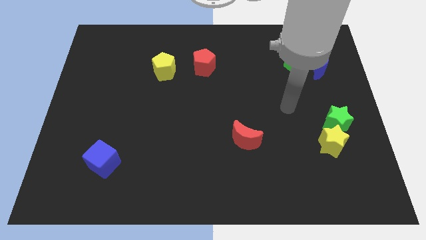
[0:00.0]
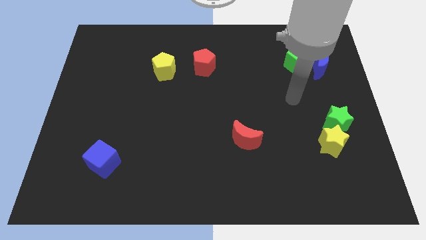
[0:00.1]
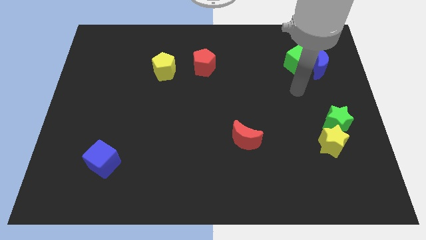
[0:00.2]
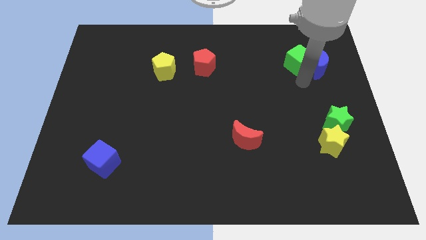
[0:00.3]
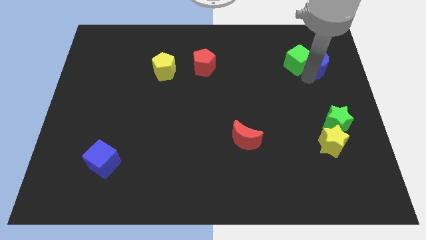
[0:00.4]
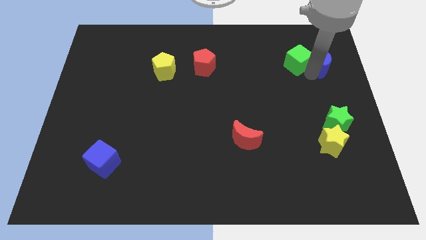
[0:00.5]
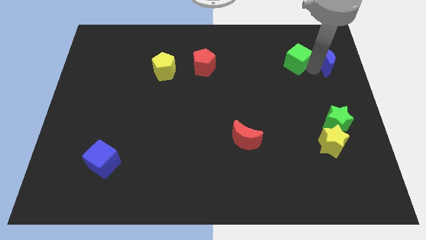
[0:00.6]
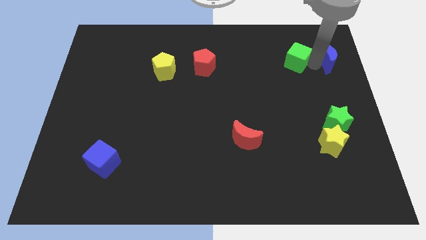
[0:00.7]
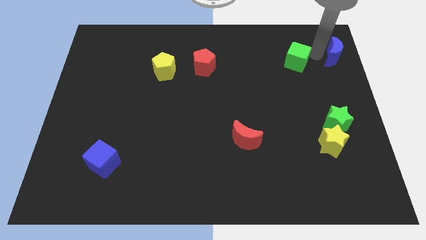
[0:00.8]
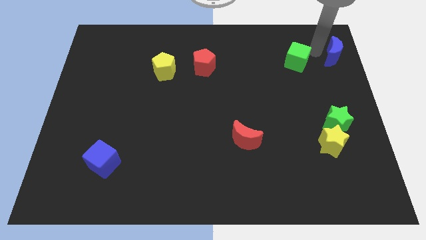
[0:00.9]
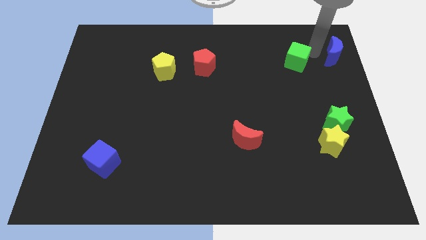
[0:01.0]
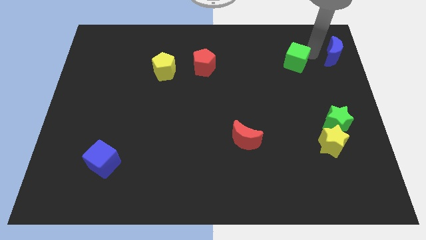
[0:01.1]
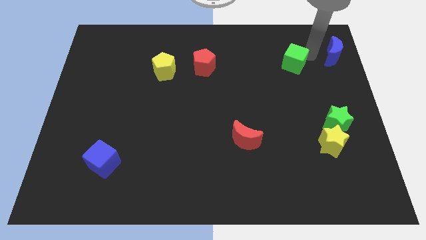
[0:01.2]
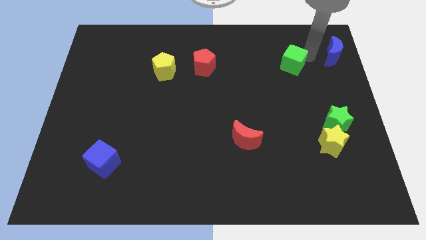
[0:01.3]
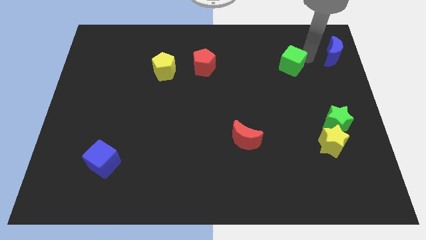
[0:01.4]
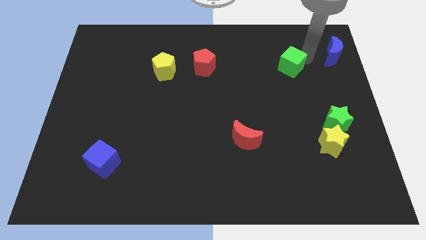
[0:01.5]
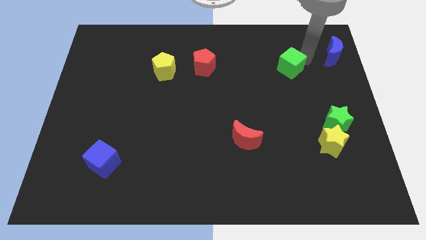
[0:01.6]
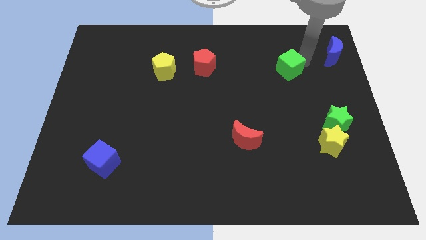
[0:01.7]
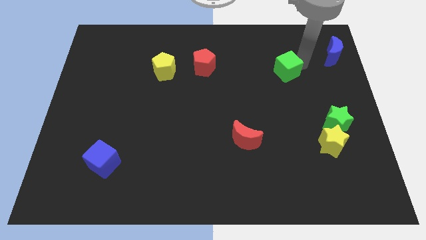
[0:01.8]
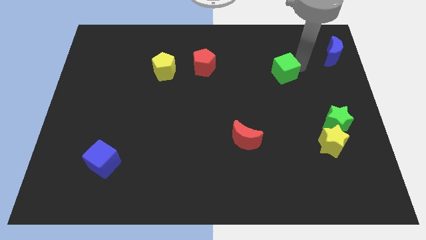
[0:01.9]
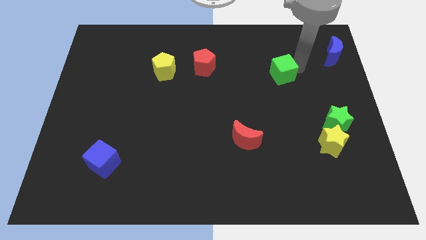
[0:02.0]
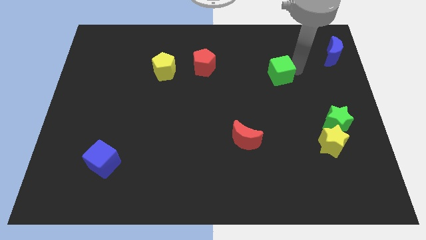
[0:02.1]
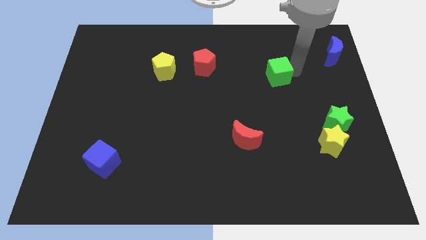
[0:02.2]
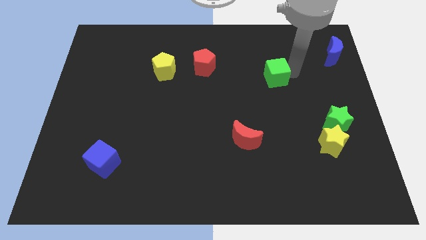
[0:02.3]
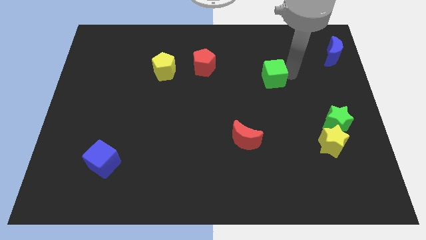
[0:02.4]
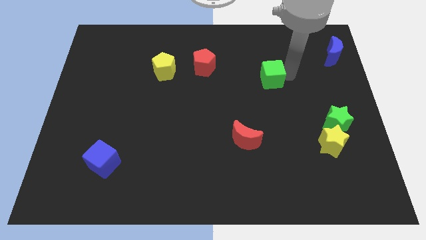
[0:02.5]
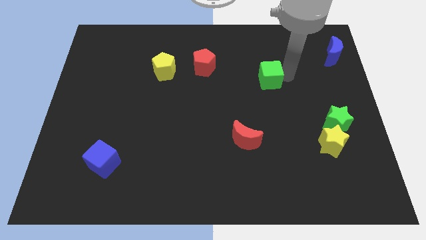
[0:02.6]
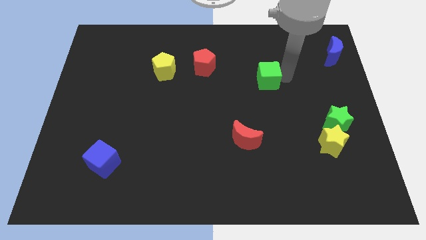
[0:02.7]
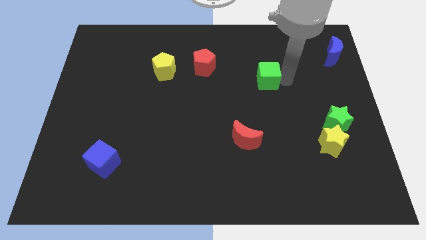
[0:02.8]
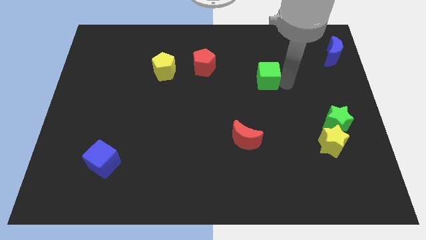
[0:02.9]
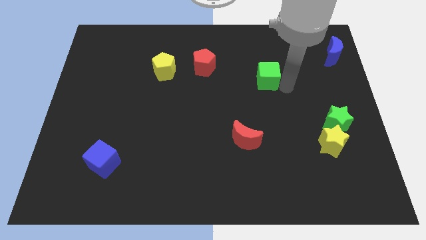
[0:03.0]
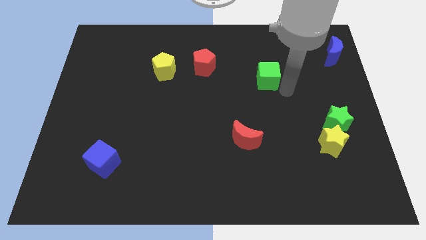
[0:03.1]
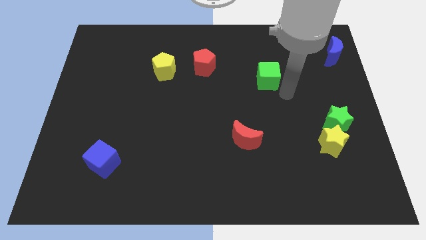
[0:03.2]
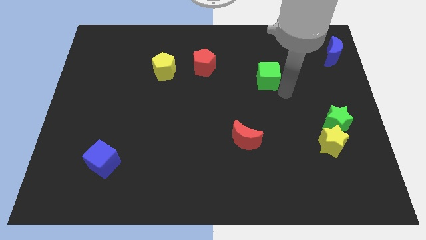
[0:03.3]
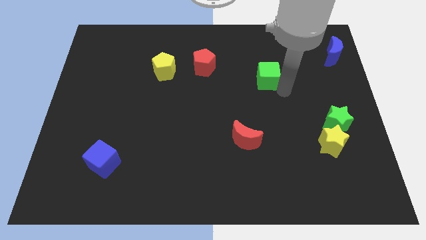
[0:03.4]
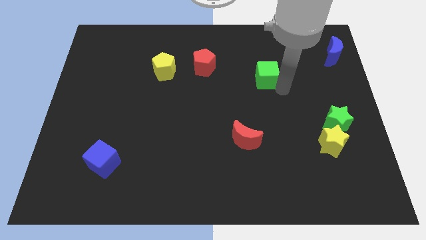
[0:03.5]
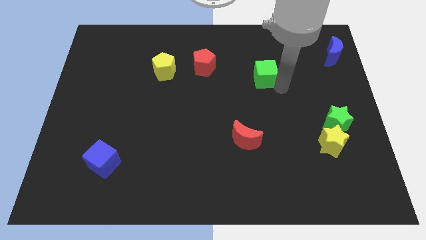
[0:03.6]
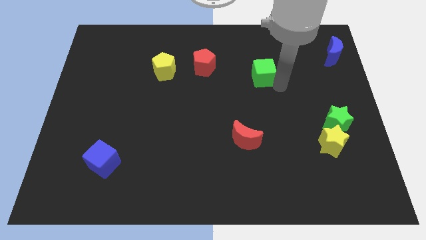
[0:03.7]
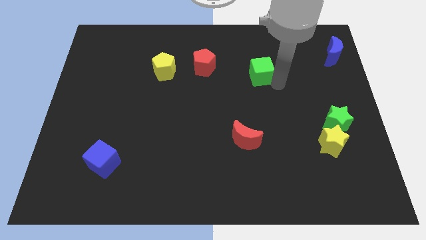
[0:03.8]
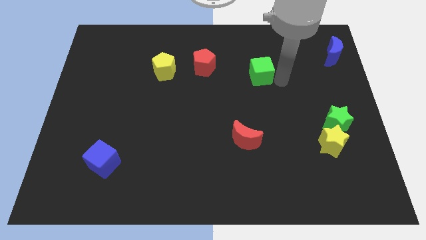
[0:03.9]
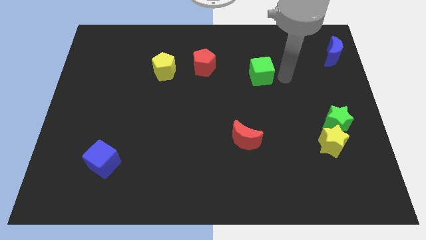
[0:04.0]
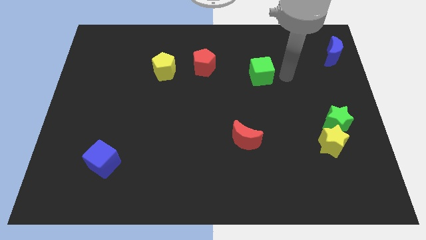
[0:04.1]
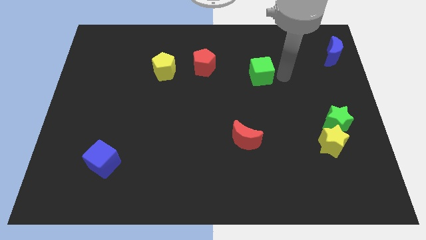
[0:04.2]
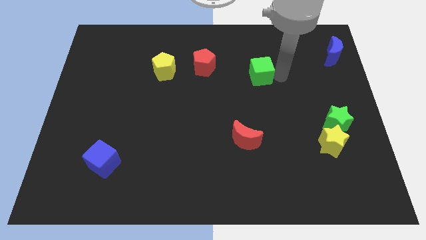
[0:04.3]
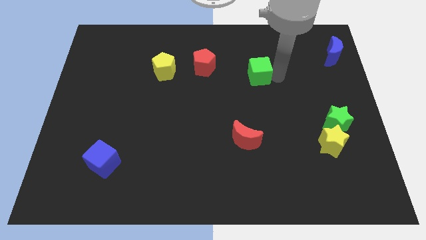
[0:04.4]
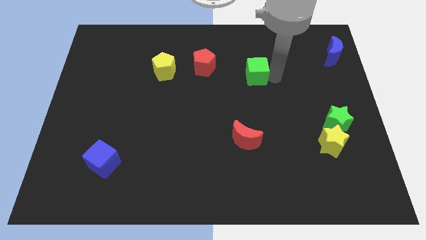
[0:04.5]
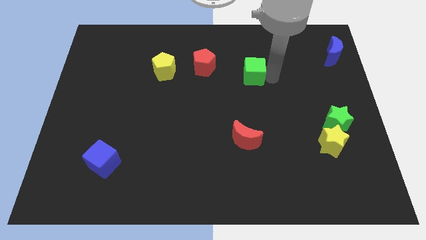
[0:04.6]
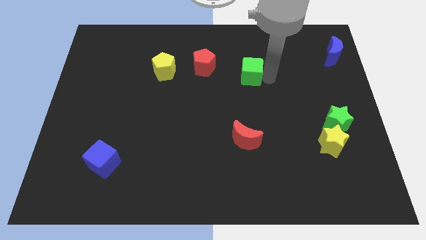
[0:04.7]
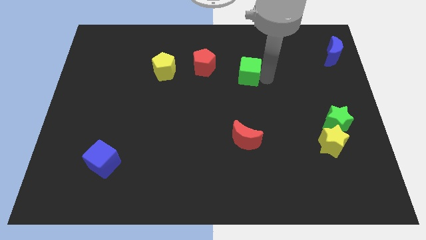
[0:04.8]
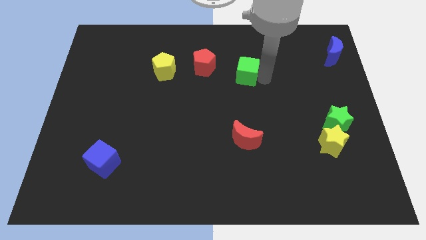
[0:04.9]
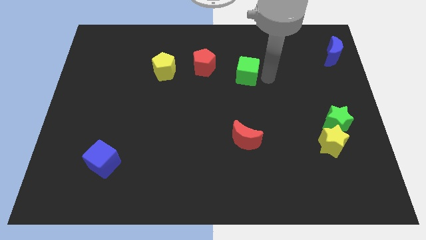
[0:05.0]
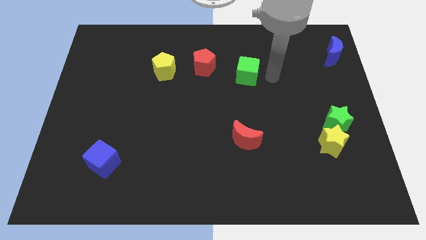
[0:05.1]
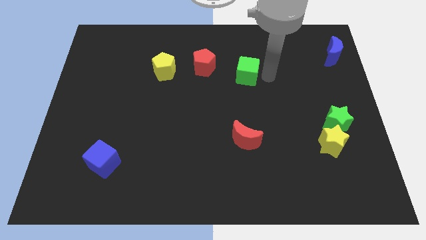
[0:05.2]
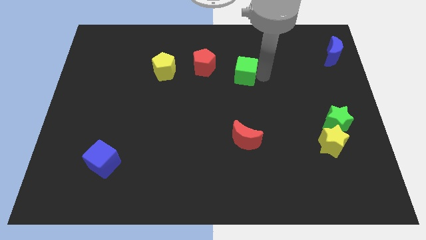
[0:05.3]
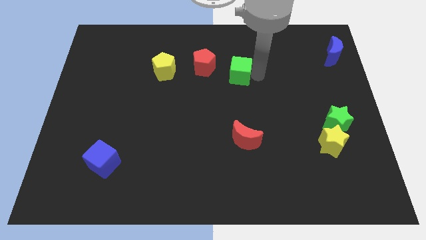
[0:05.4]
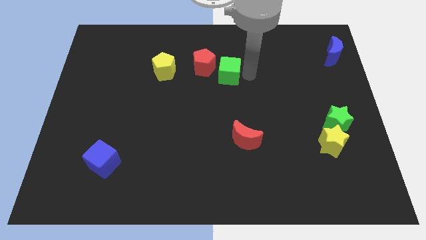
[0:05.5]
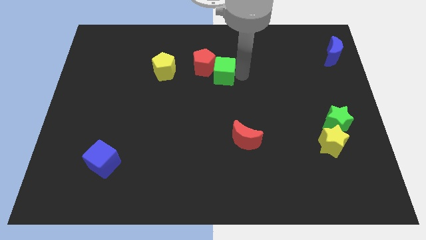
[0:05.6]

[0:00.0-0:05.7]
move the green cube next to the red pentagon

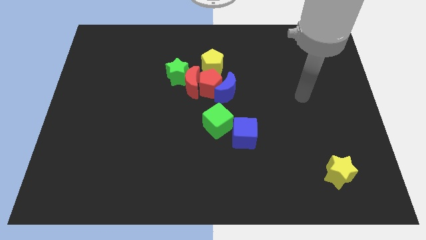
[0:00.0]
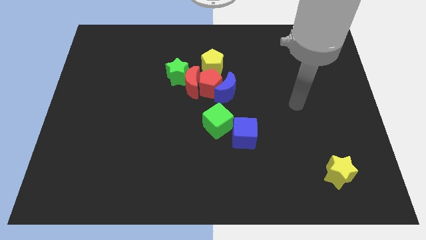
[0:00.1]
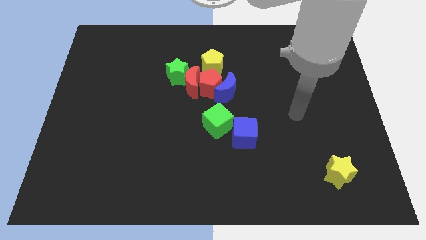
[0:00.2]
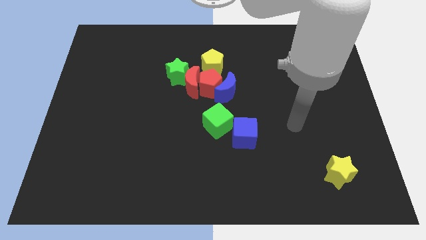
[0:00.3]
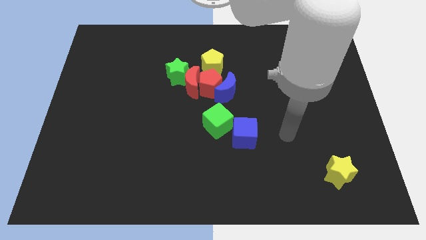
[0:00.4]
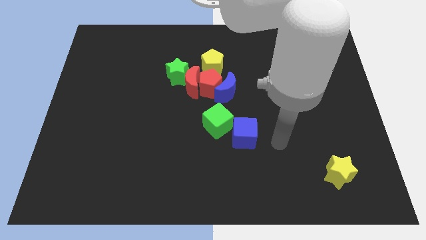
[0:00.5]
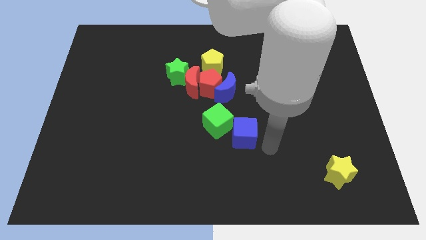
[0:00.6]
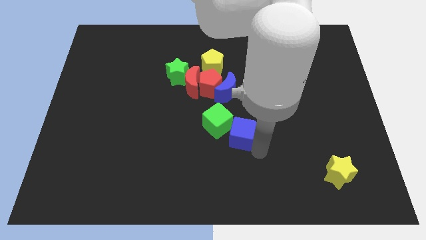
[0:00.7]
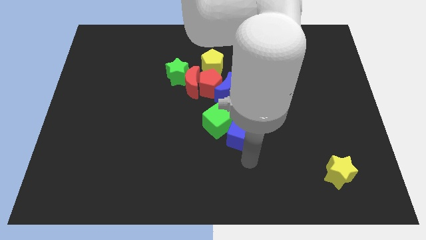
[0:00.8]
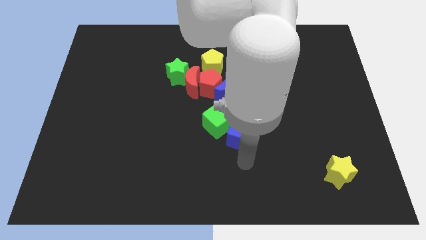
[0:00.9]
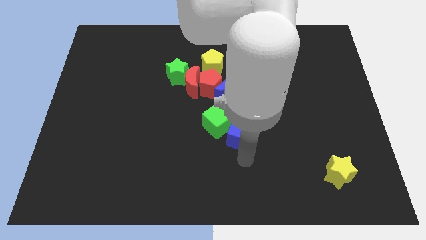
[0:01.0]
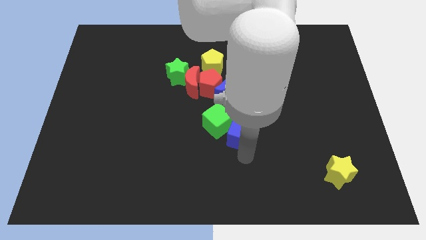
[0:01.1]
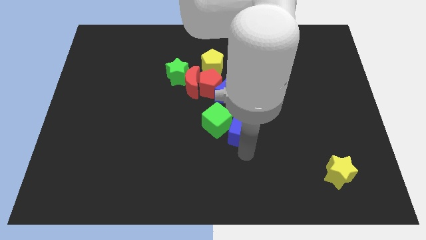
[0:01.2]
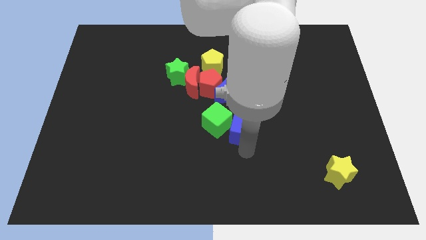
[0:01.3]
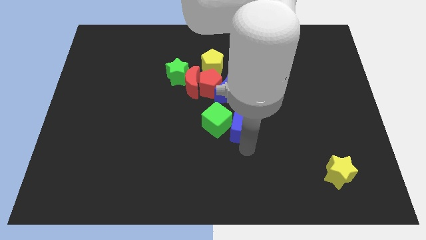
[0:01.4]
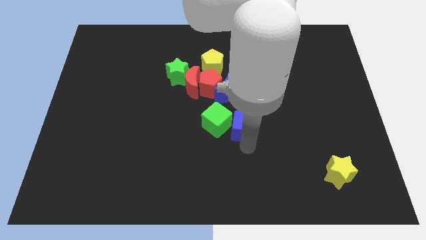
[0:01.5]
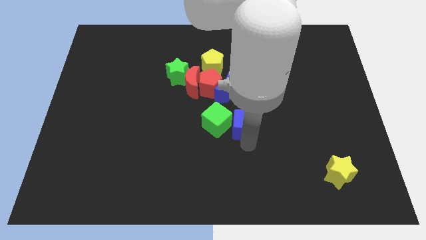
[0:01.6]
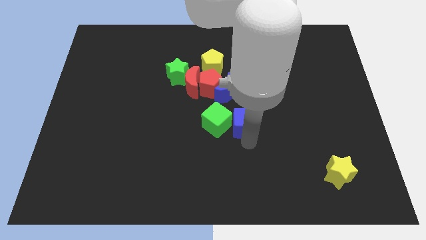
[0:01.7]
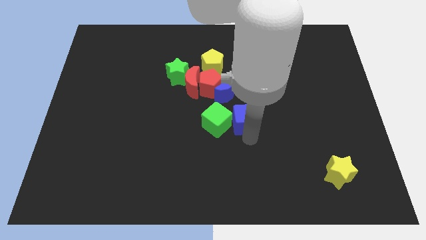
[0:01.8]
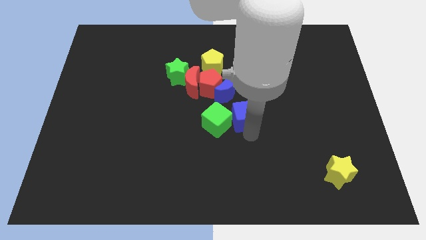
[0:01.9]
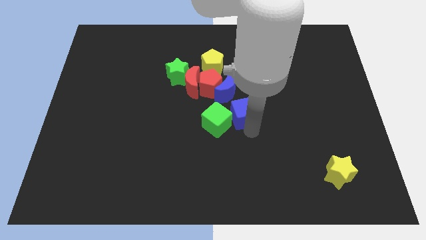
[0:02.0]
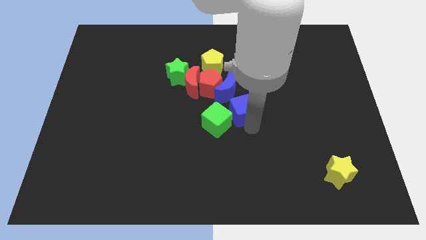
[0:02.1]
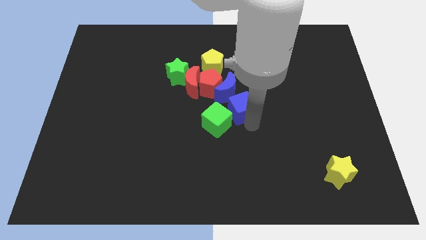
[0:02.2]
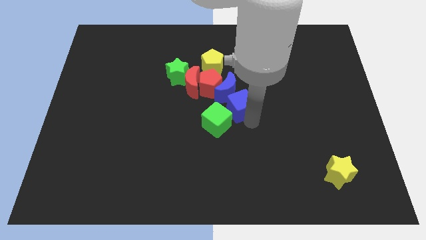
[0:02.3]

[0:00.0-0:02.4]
push the blue cube next to the blue moon
